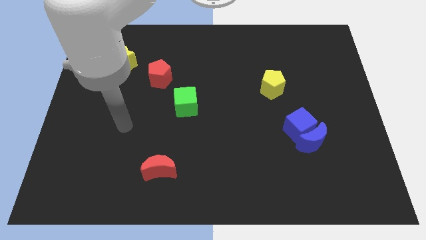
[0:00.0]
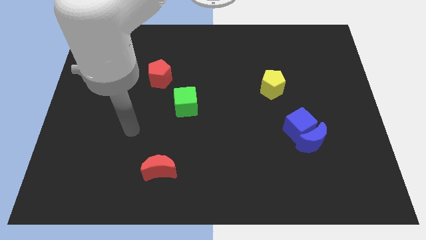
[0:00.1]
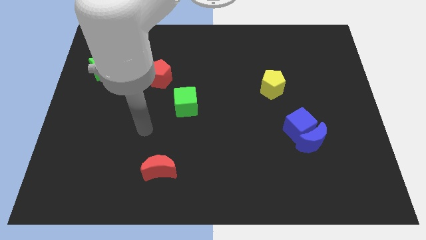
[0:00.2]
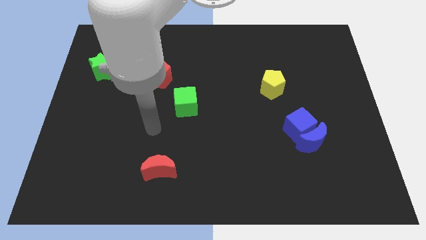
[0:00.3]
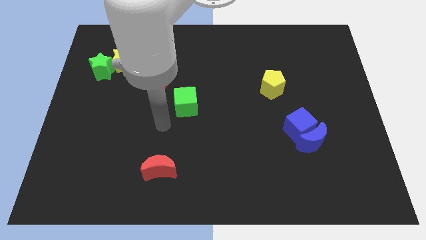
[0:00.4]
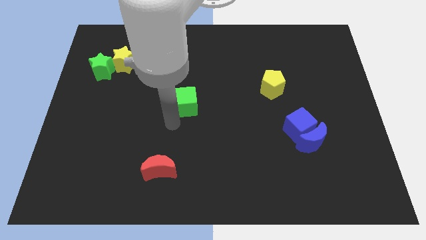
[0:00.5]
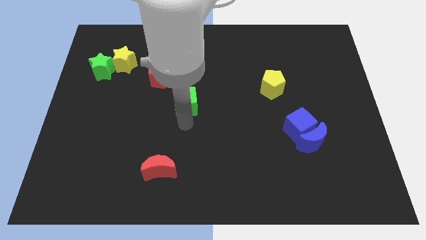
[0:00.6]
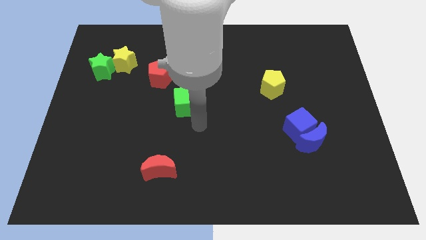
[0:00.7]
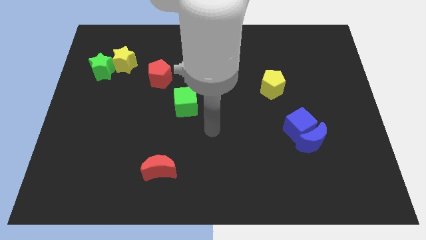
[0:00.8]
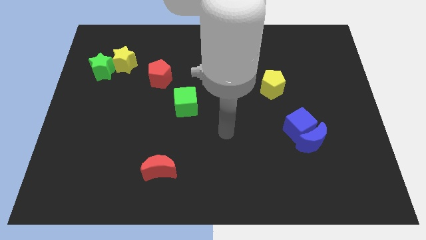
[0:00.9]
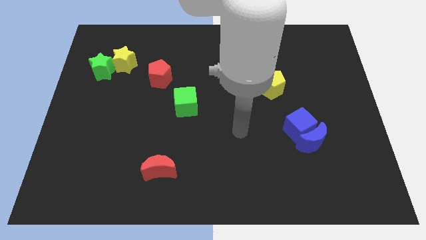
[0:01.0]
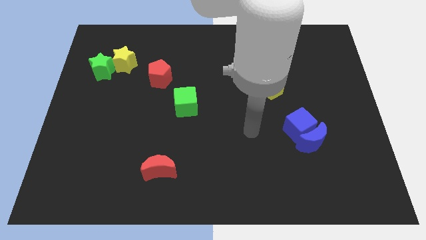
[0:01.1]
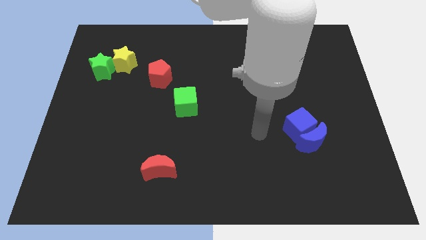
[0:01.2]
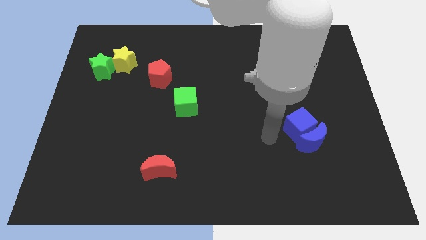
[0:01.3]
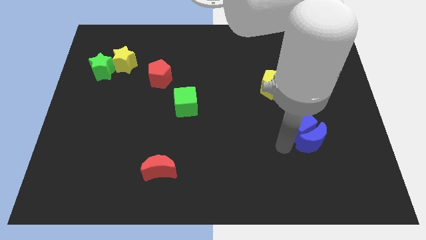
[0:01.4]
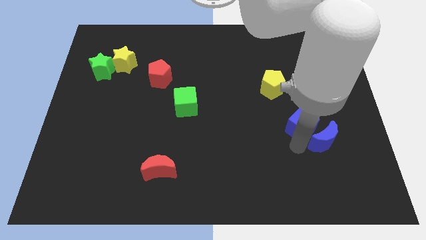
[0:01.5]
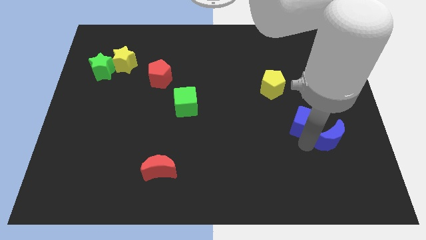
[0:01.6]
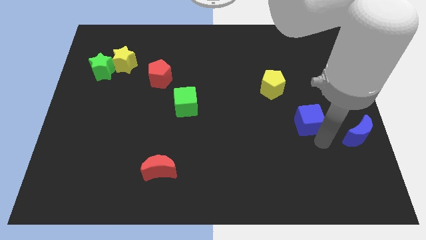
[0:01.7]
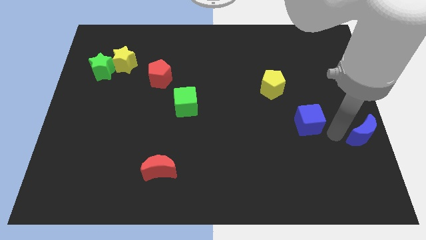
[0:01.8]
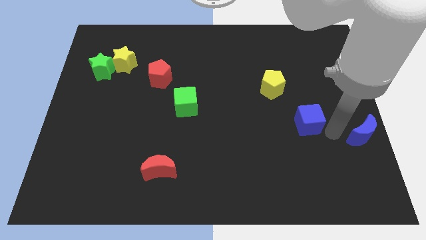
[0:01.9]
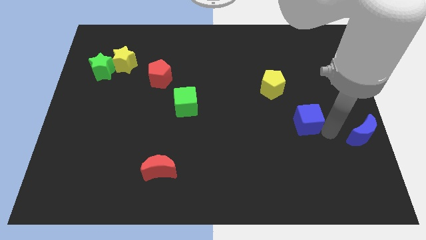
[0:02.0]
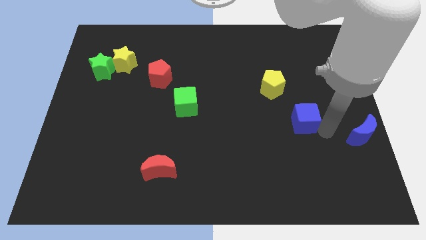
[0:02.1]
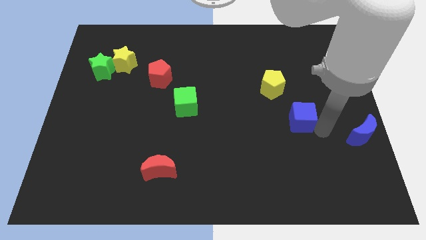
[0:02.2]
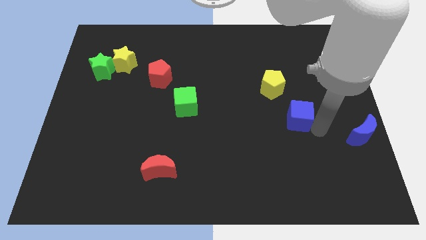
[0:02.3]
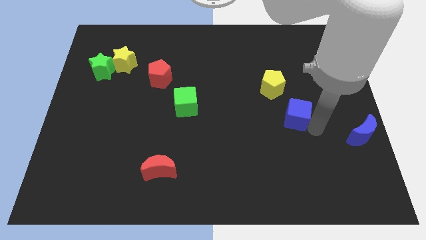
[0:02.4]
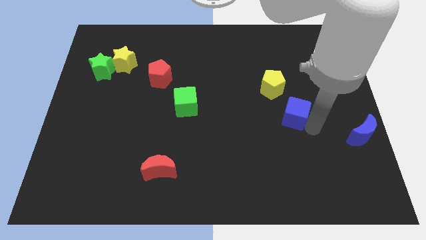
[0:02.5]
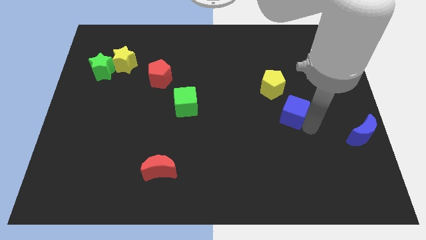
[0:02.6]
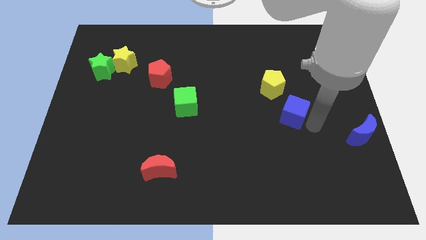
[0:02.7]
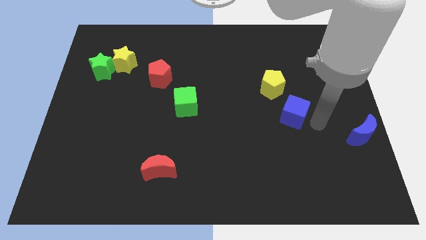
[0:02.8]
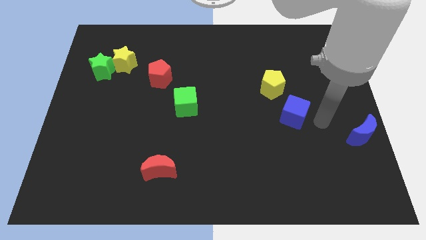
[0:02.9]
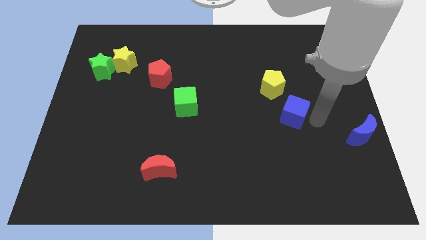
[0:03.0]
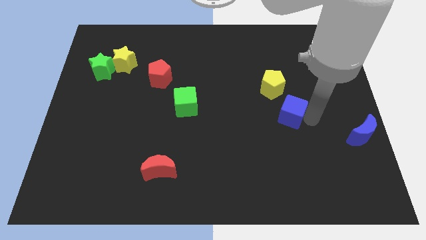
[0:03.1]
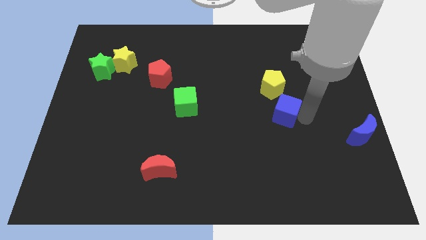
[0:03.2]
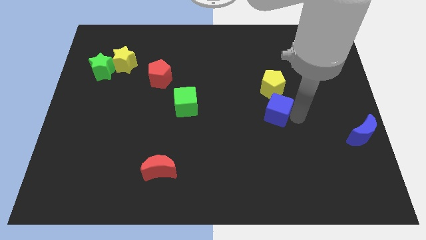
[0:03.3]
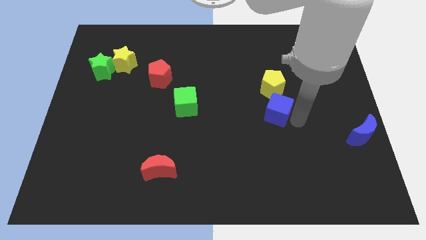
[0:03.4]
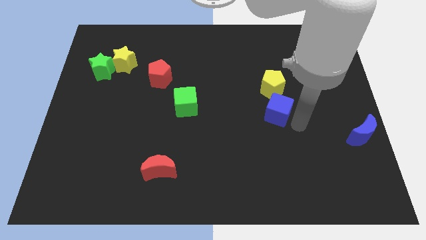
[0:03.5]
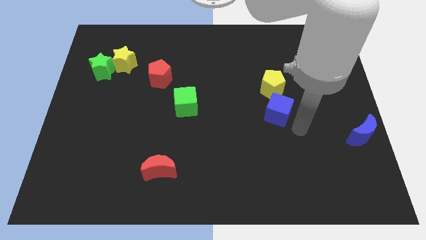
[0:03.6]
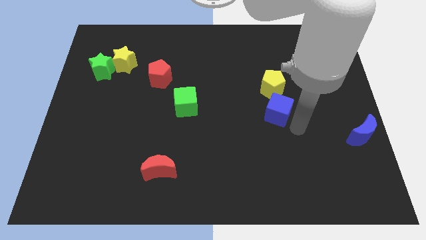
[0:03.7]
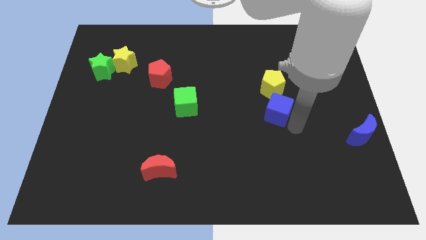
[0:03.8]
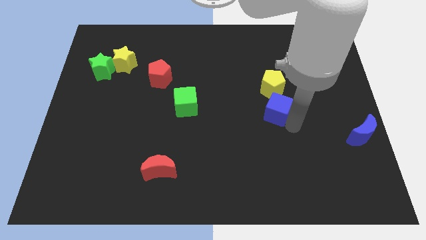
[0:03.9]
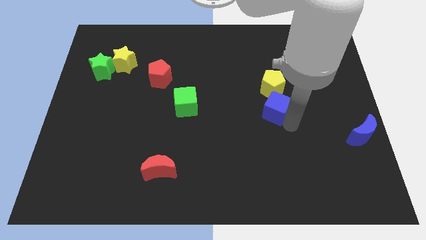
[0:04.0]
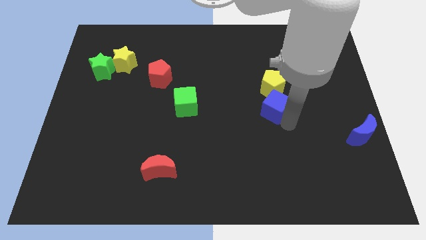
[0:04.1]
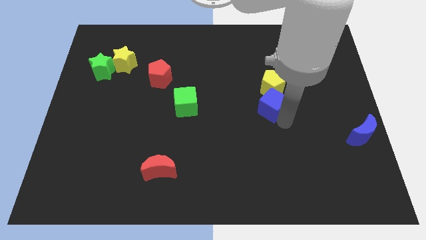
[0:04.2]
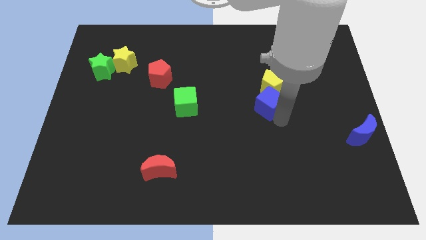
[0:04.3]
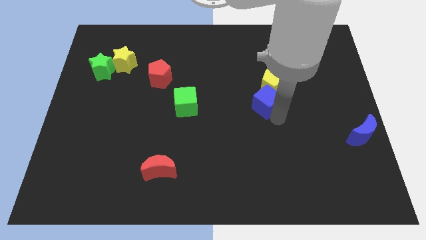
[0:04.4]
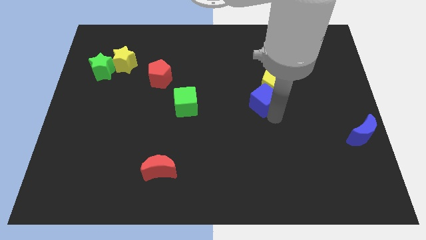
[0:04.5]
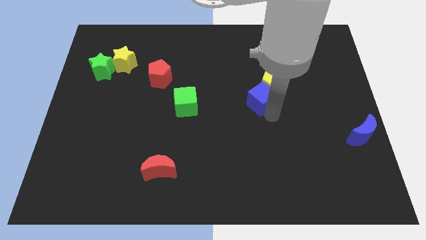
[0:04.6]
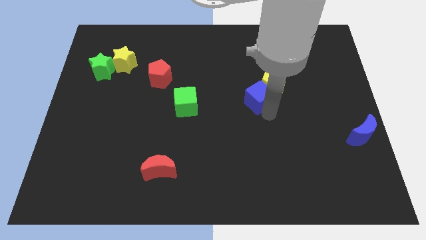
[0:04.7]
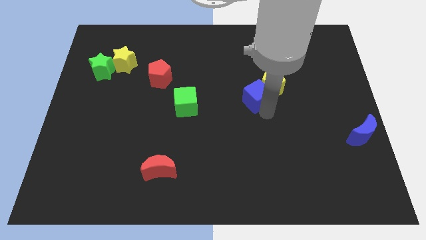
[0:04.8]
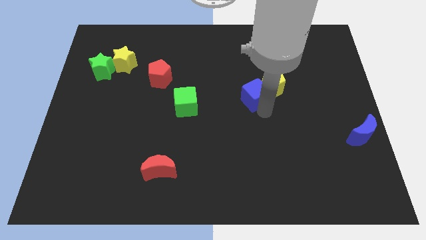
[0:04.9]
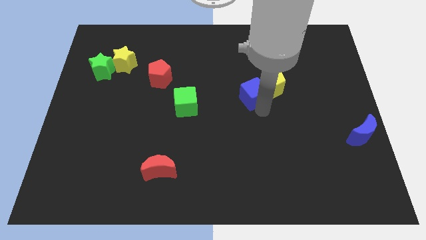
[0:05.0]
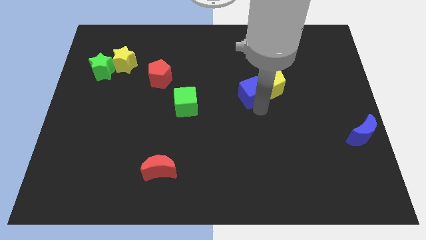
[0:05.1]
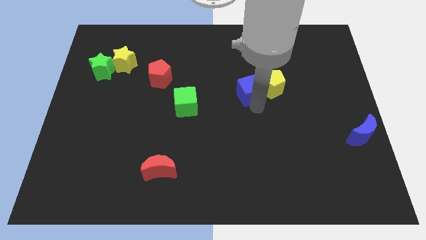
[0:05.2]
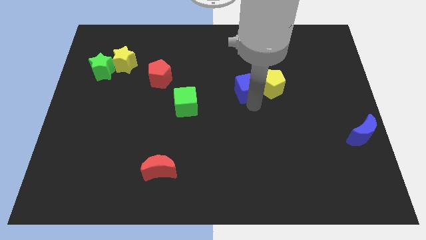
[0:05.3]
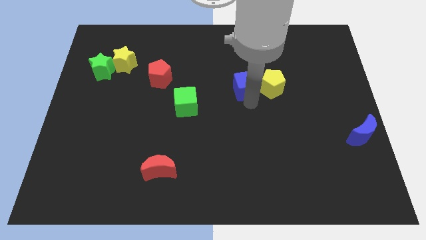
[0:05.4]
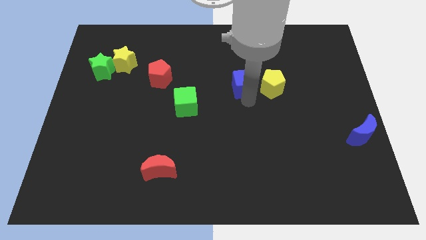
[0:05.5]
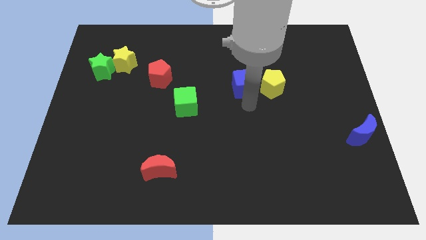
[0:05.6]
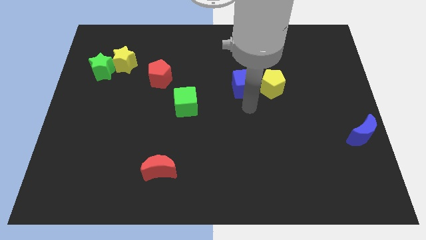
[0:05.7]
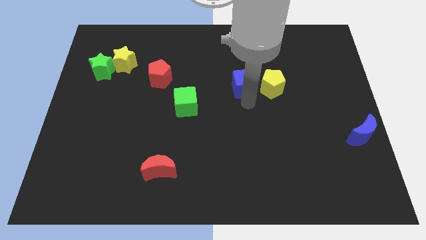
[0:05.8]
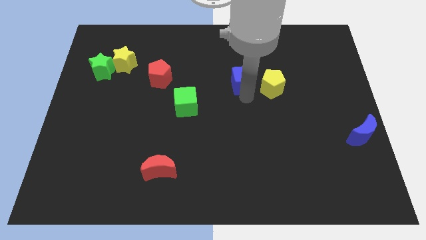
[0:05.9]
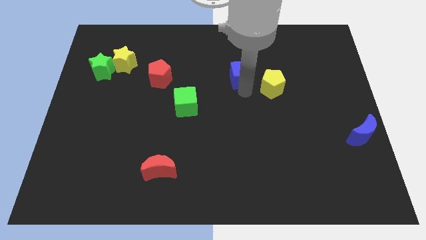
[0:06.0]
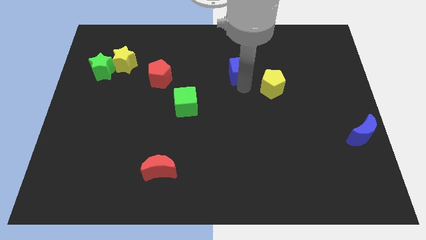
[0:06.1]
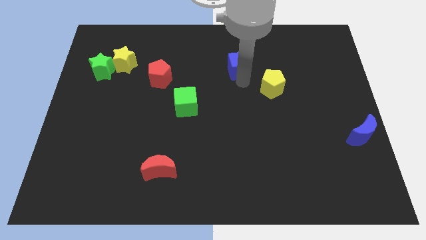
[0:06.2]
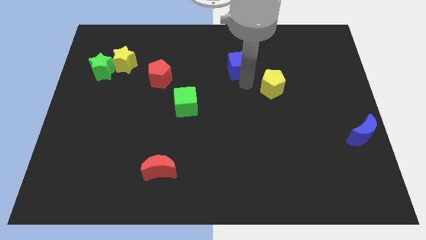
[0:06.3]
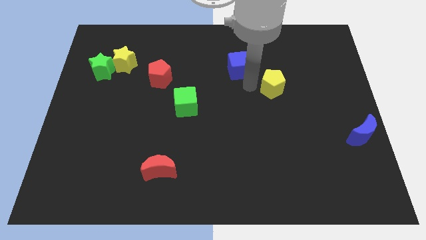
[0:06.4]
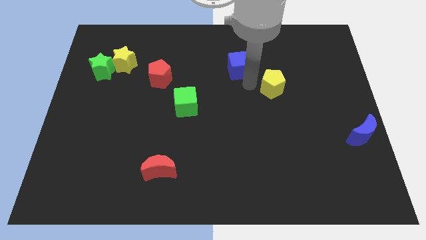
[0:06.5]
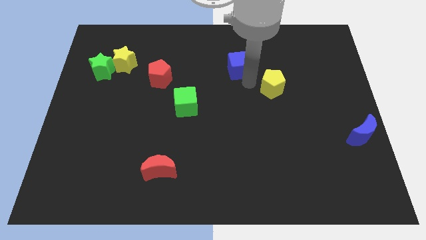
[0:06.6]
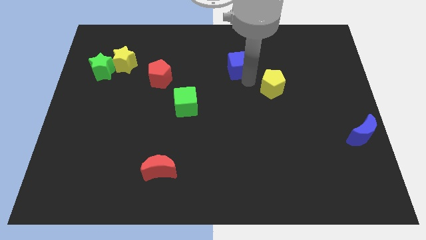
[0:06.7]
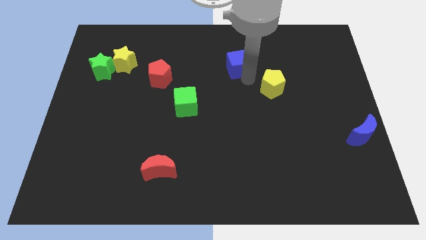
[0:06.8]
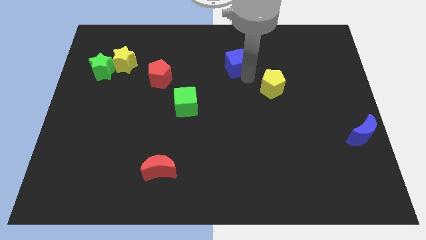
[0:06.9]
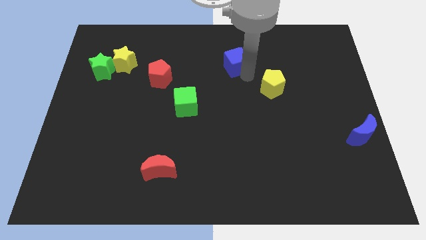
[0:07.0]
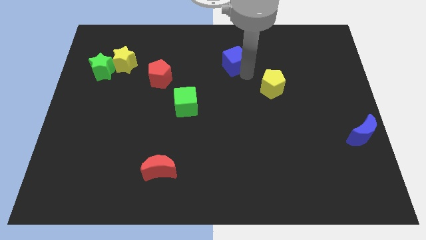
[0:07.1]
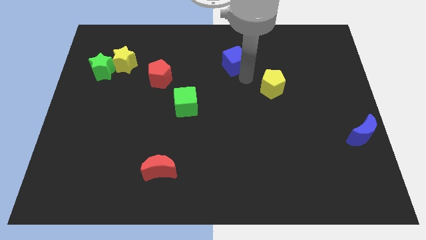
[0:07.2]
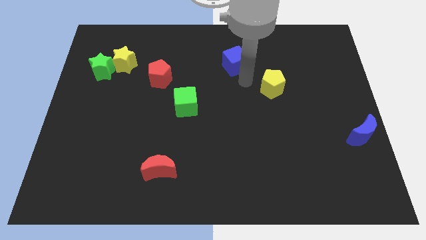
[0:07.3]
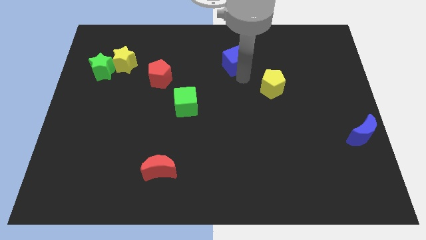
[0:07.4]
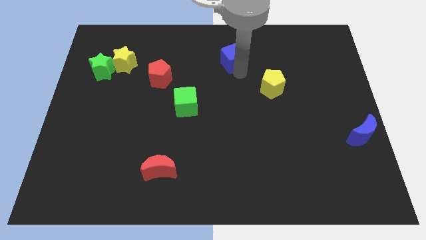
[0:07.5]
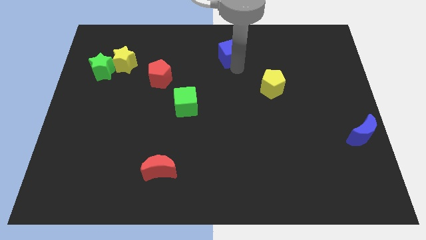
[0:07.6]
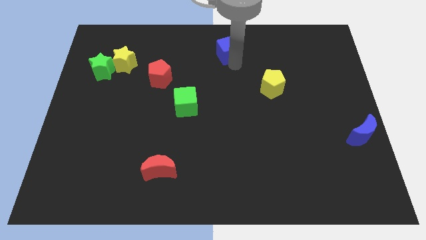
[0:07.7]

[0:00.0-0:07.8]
put the blue cube to the towards your base
